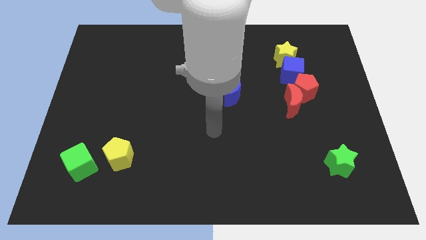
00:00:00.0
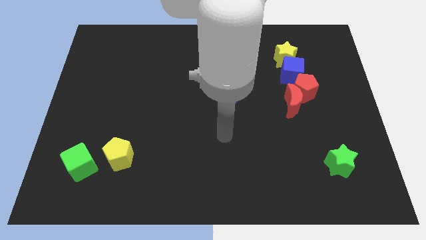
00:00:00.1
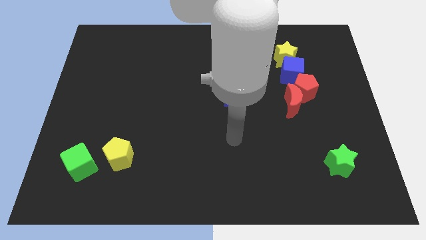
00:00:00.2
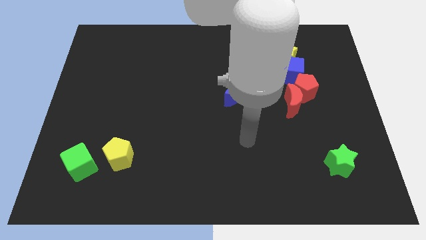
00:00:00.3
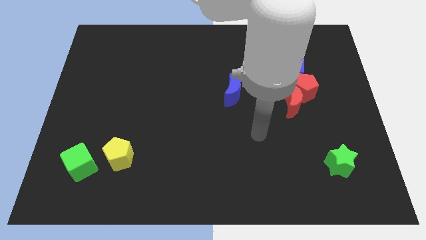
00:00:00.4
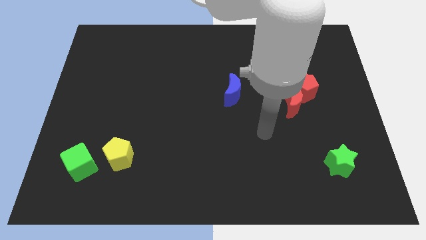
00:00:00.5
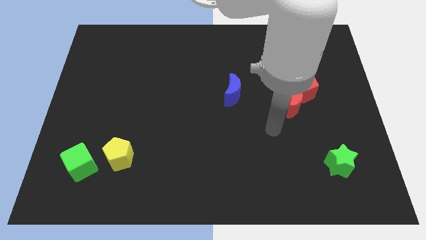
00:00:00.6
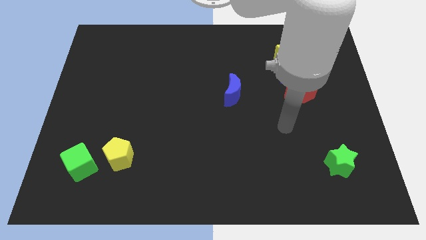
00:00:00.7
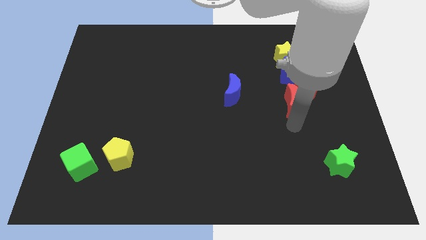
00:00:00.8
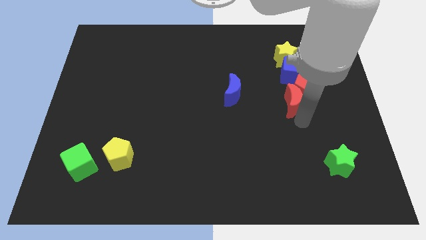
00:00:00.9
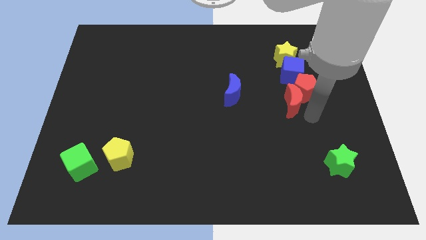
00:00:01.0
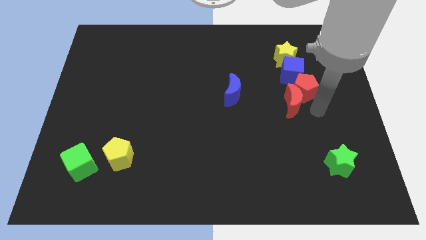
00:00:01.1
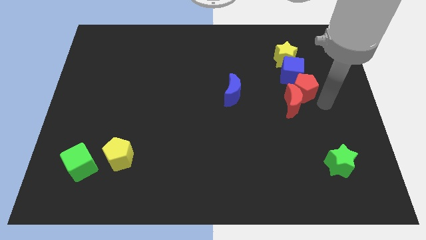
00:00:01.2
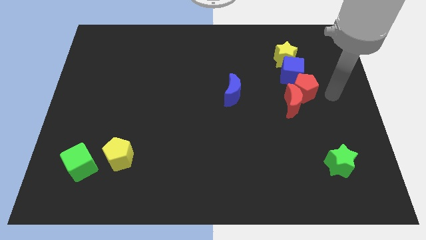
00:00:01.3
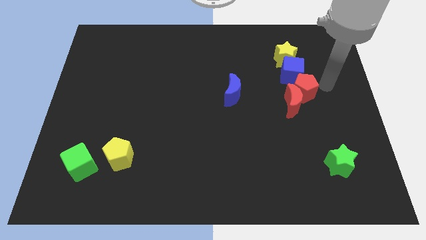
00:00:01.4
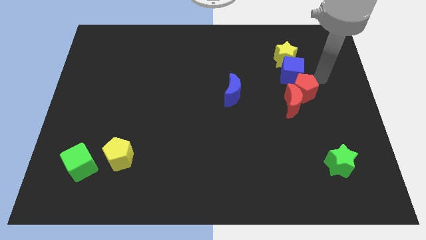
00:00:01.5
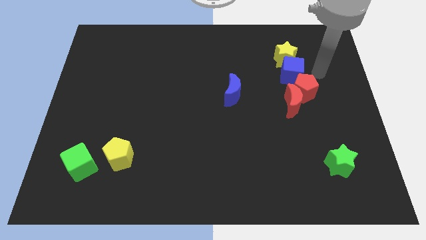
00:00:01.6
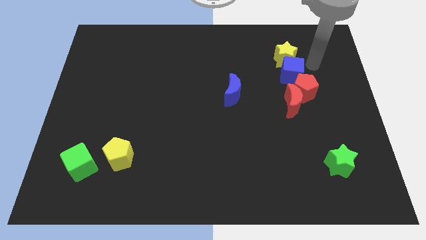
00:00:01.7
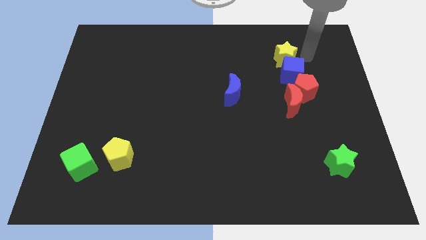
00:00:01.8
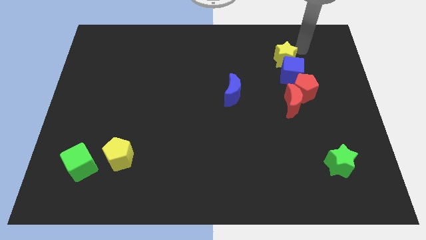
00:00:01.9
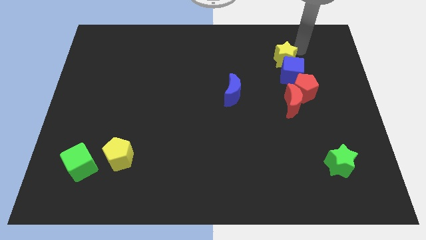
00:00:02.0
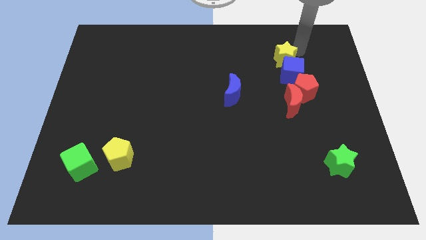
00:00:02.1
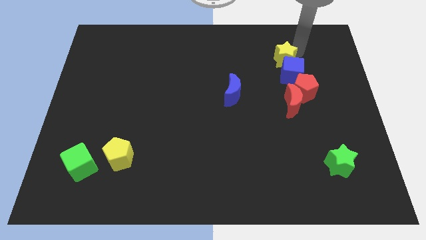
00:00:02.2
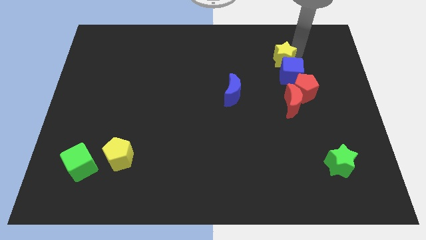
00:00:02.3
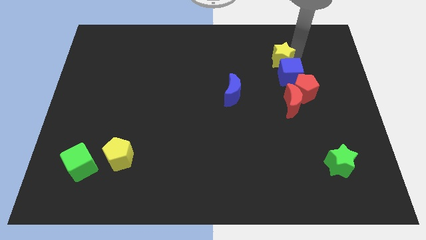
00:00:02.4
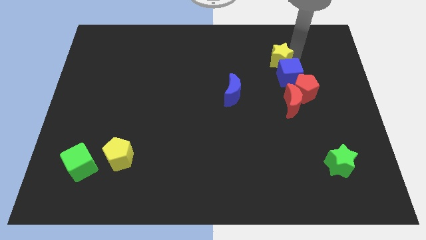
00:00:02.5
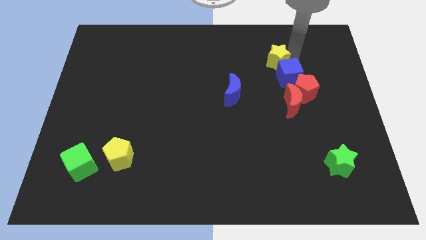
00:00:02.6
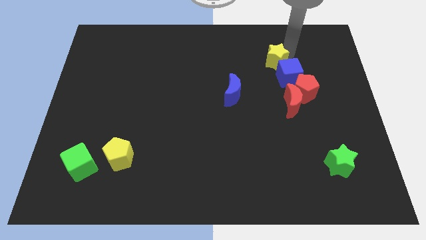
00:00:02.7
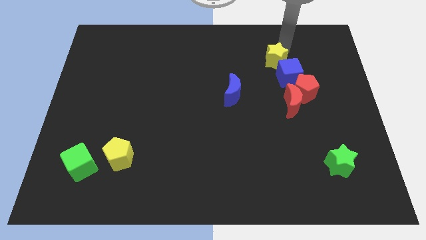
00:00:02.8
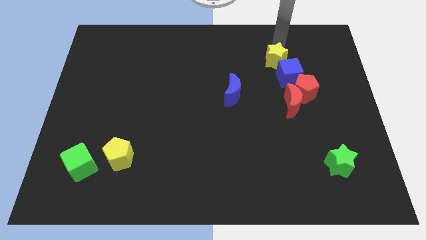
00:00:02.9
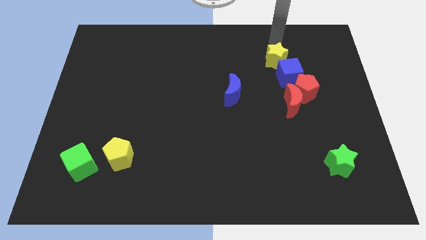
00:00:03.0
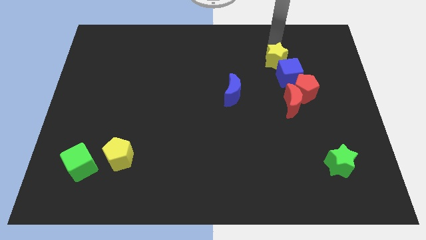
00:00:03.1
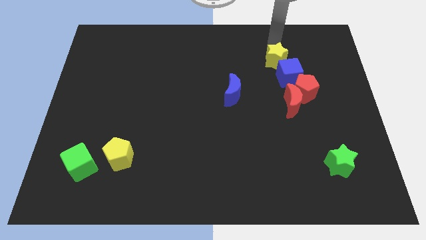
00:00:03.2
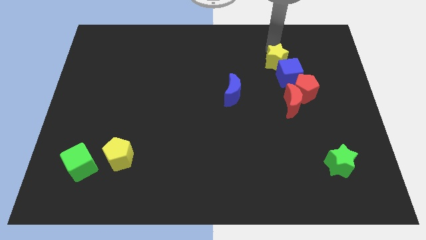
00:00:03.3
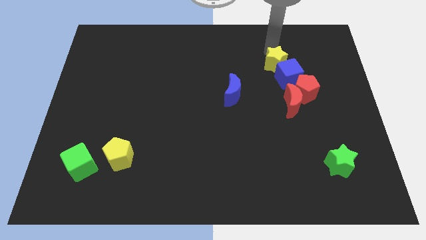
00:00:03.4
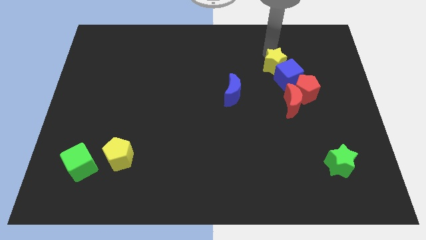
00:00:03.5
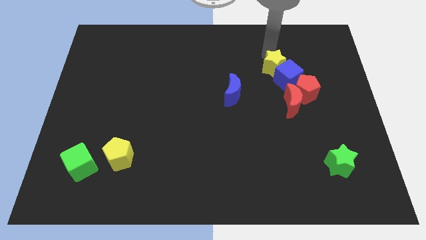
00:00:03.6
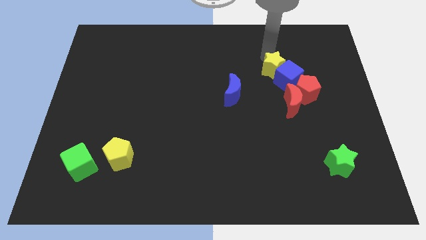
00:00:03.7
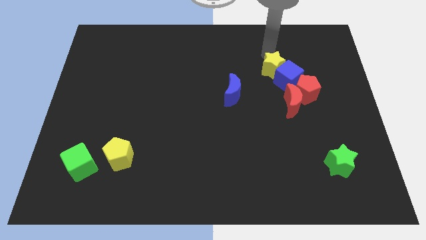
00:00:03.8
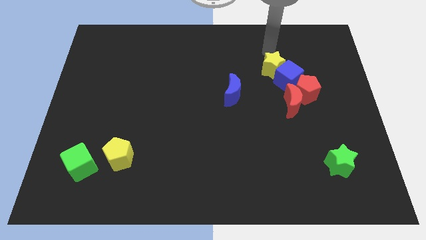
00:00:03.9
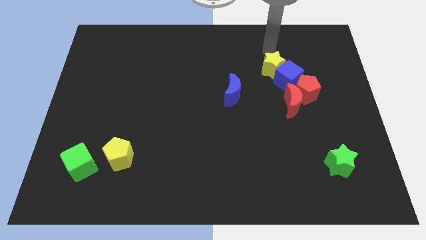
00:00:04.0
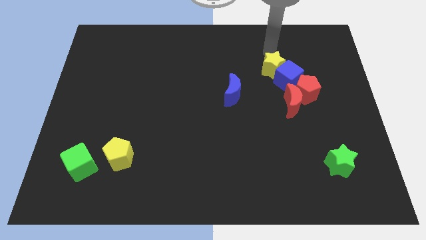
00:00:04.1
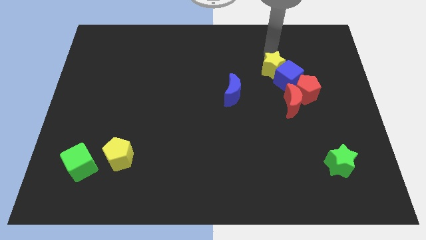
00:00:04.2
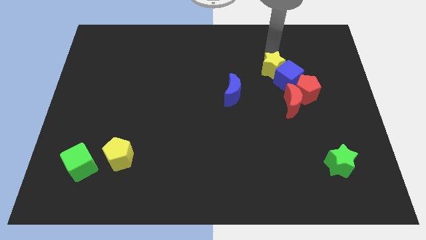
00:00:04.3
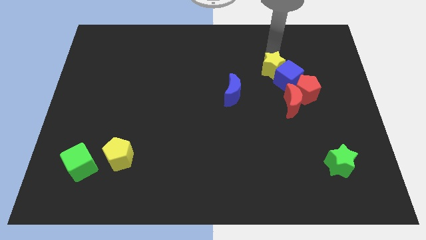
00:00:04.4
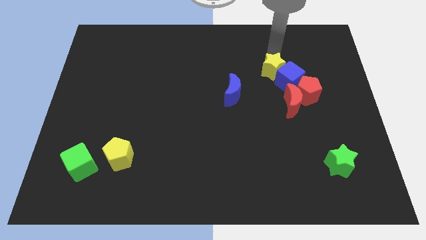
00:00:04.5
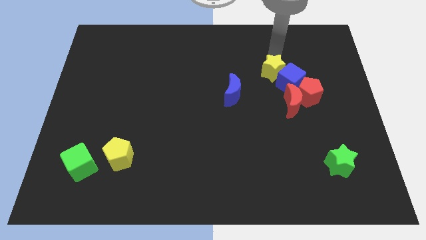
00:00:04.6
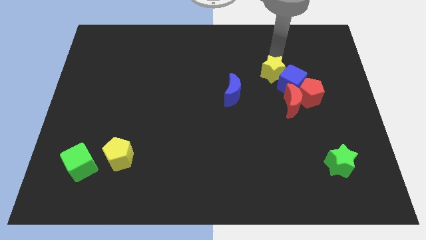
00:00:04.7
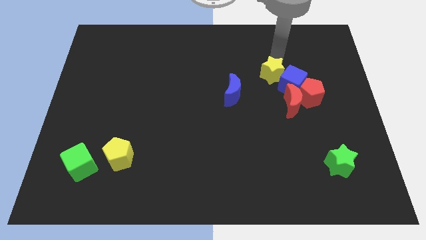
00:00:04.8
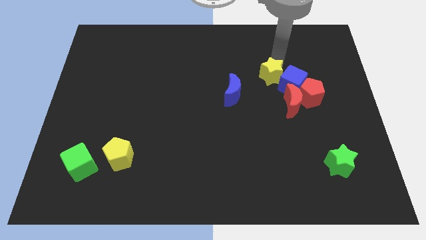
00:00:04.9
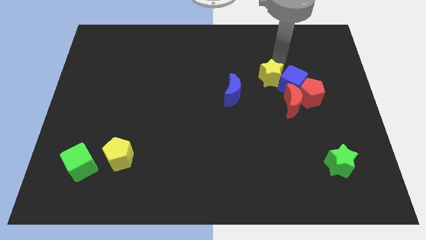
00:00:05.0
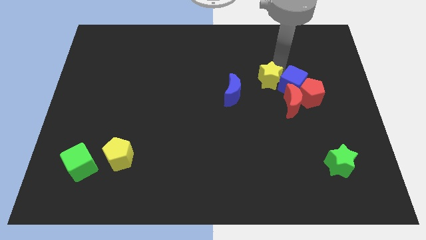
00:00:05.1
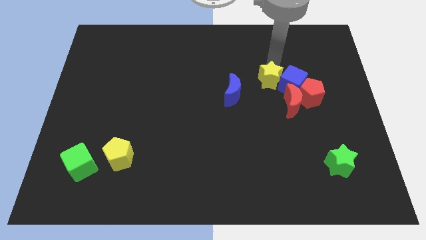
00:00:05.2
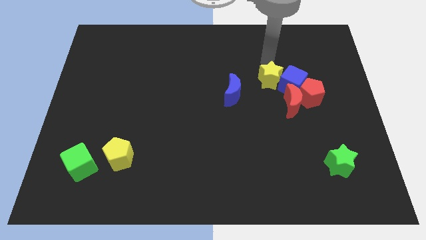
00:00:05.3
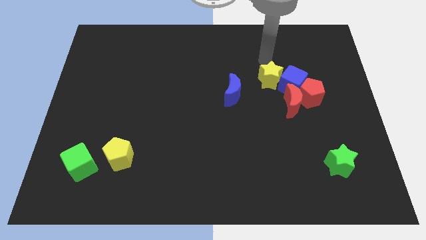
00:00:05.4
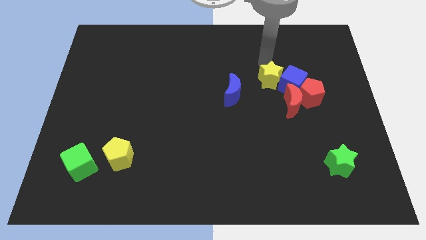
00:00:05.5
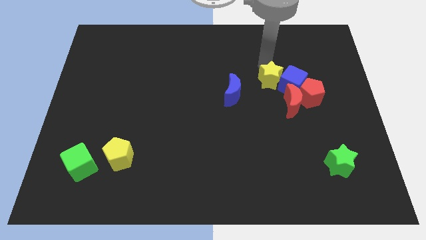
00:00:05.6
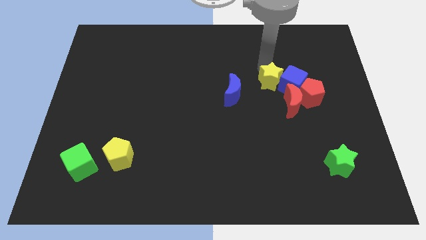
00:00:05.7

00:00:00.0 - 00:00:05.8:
slide the yellow star downwards somewhat

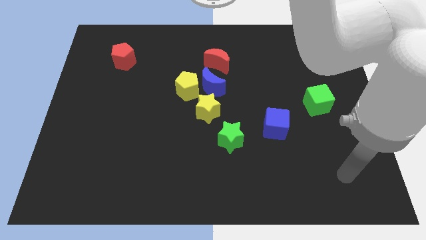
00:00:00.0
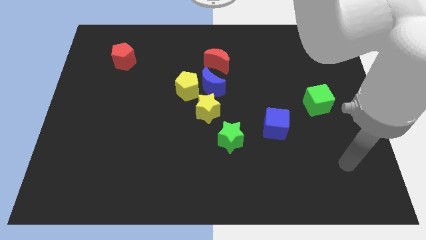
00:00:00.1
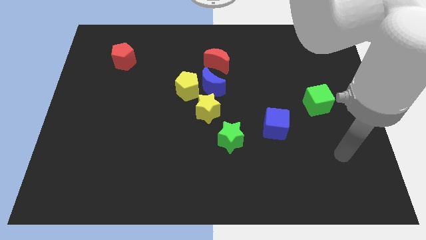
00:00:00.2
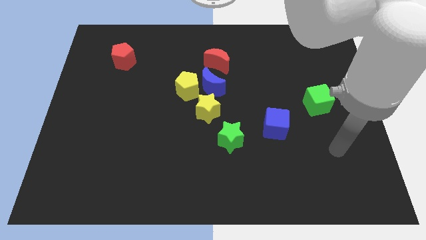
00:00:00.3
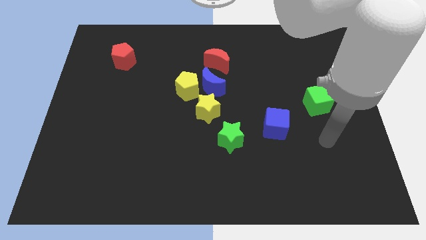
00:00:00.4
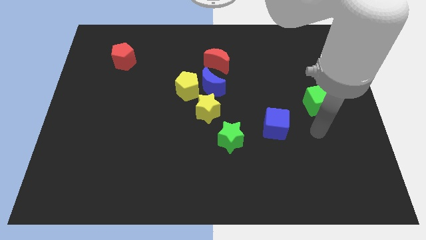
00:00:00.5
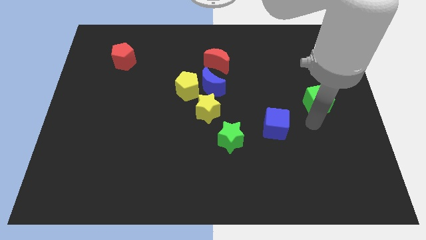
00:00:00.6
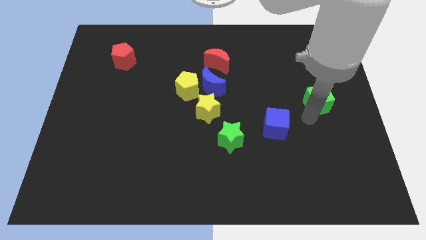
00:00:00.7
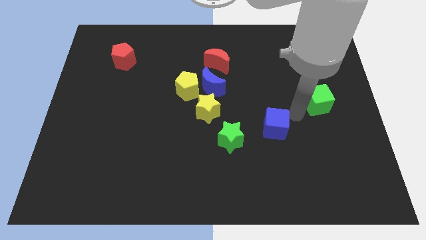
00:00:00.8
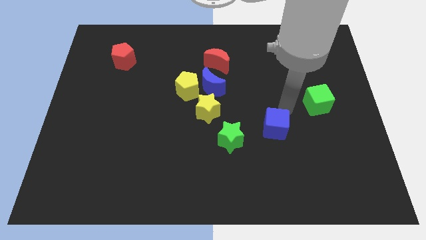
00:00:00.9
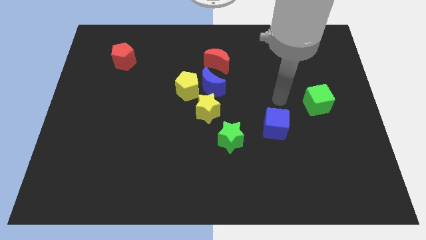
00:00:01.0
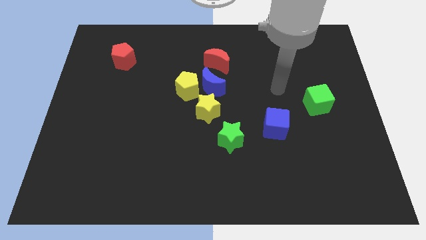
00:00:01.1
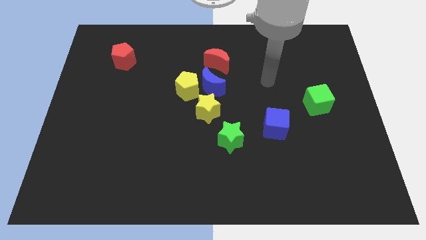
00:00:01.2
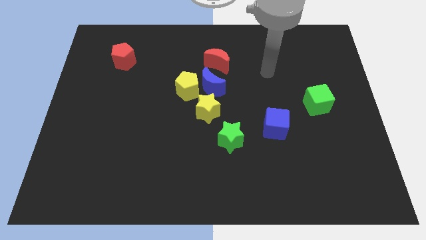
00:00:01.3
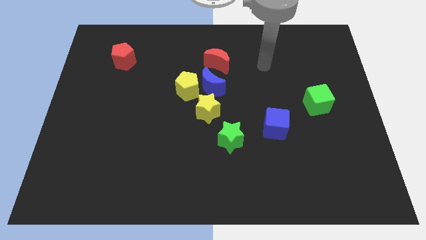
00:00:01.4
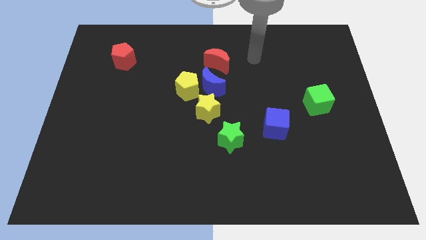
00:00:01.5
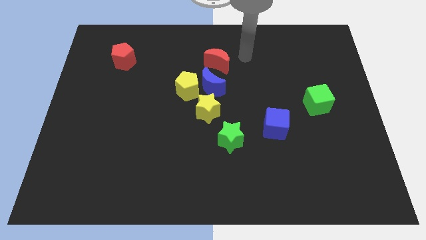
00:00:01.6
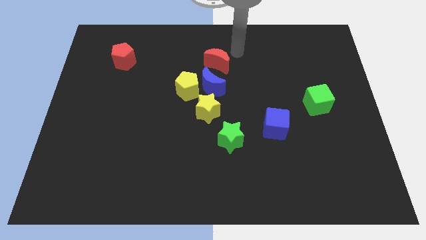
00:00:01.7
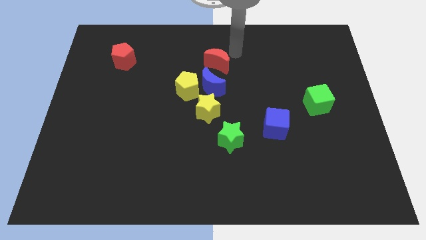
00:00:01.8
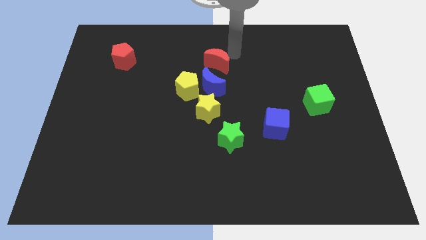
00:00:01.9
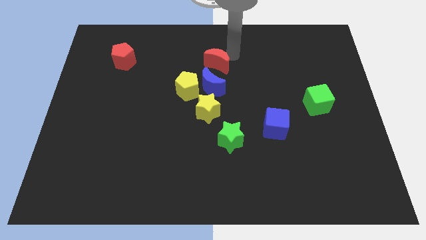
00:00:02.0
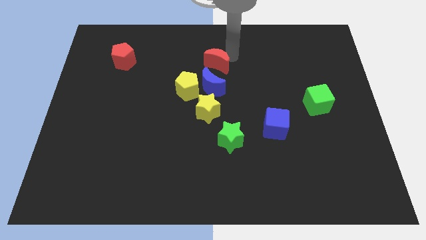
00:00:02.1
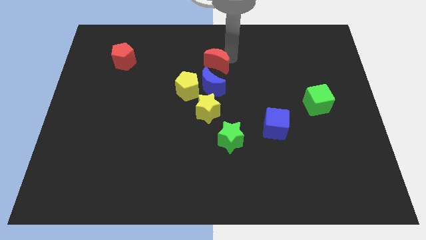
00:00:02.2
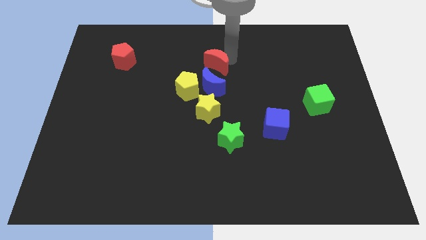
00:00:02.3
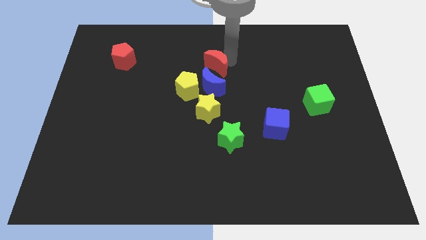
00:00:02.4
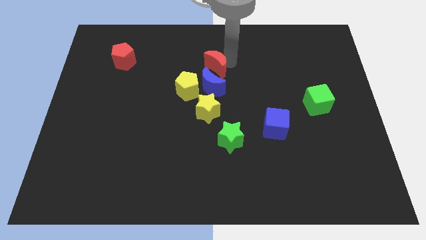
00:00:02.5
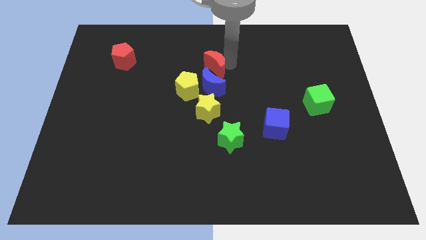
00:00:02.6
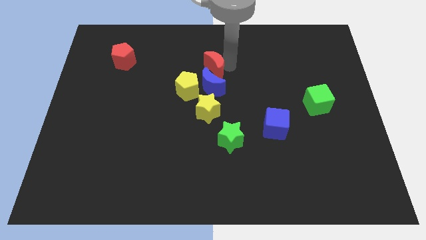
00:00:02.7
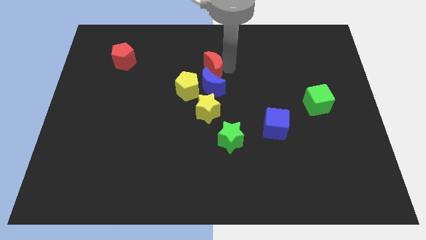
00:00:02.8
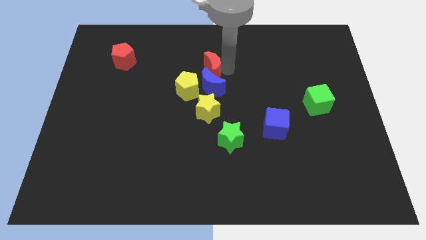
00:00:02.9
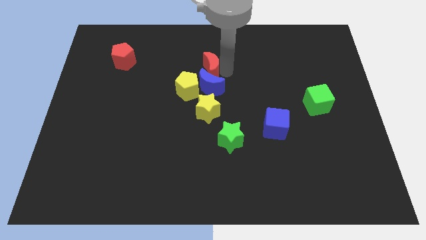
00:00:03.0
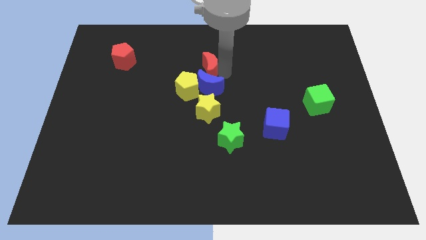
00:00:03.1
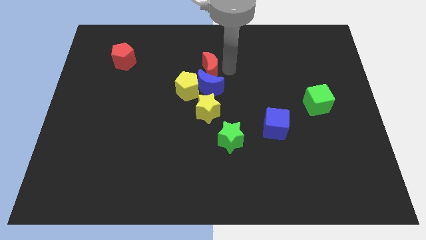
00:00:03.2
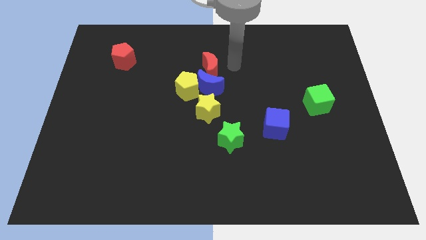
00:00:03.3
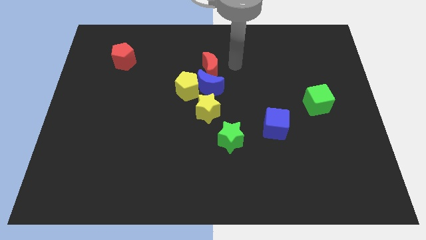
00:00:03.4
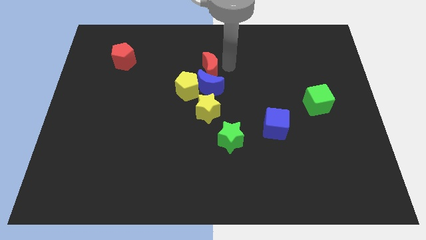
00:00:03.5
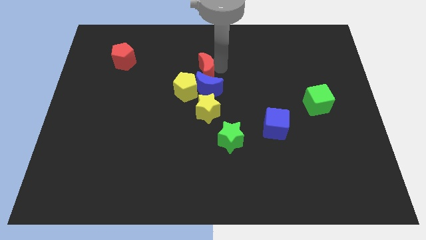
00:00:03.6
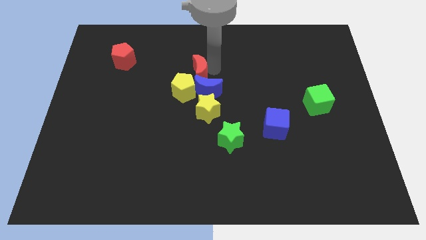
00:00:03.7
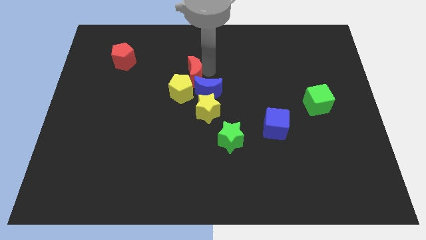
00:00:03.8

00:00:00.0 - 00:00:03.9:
move the red moon somewhat diagonally downwards and to the left
